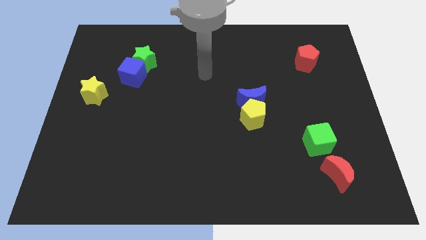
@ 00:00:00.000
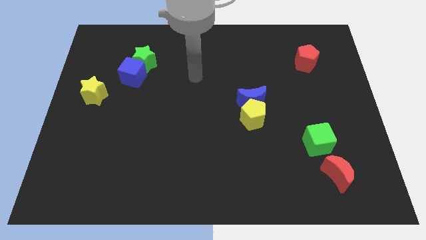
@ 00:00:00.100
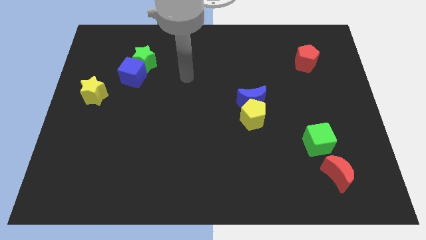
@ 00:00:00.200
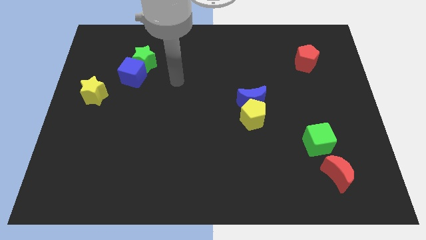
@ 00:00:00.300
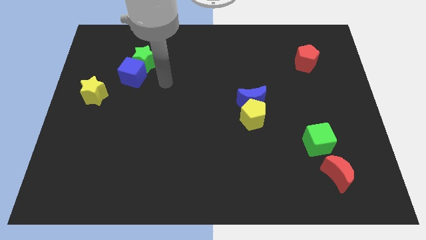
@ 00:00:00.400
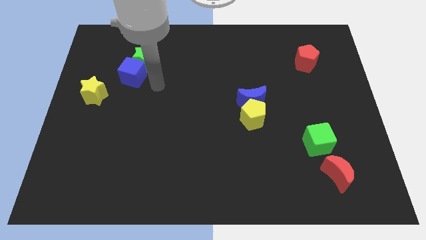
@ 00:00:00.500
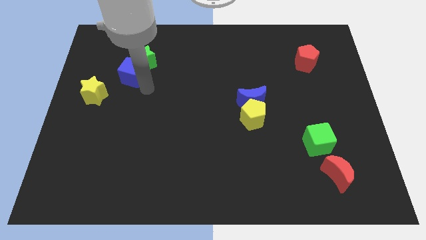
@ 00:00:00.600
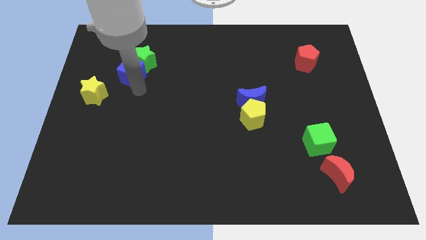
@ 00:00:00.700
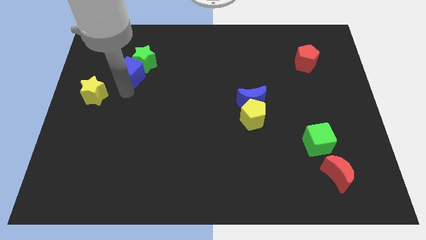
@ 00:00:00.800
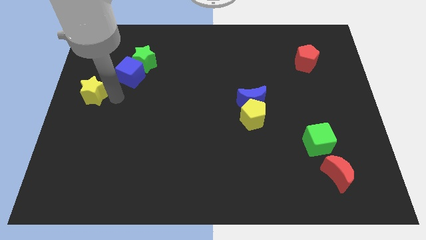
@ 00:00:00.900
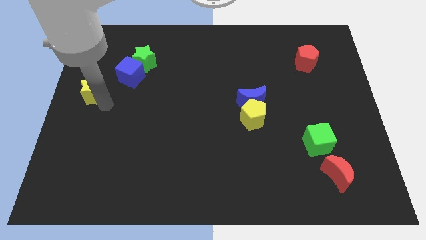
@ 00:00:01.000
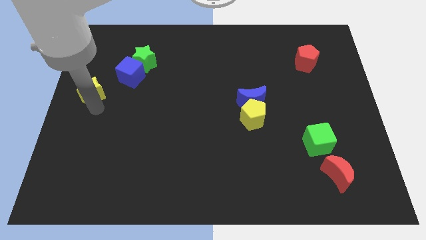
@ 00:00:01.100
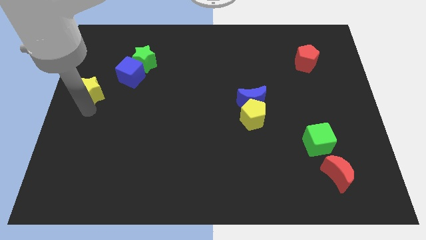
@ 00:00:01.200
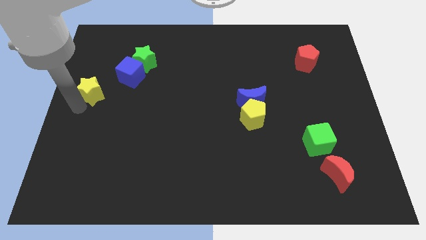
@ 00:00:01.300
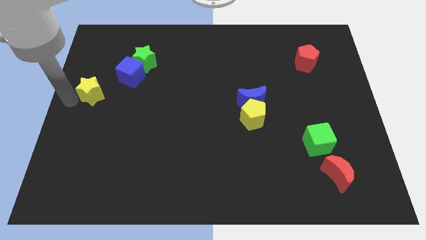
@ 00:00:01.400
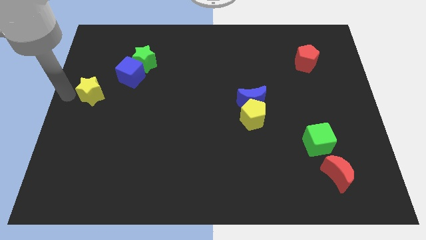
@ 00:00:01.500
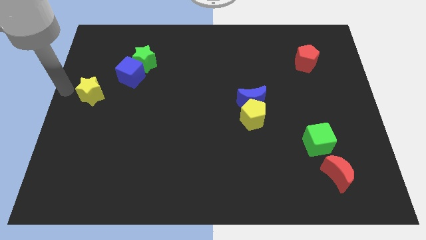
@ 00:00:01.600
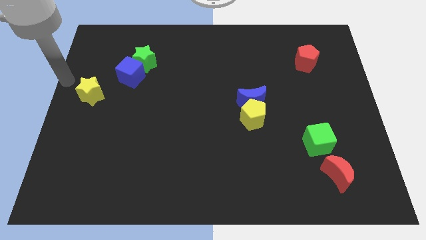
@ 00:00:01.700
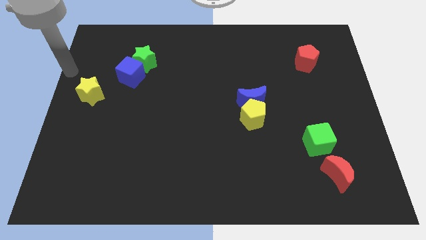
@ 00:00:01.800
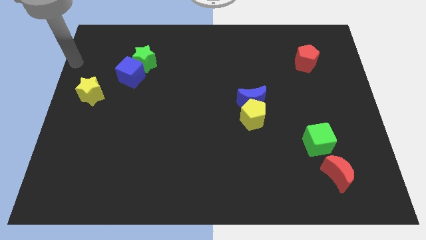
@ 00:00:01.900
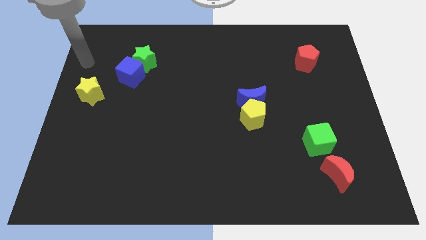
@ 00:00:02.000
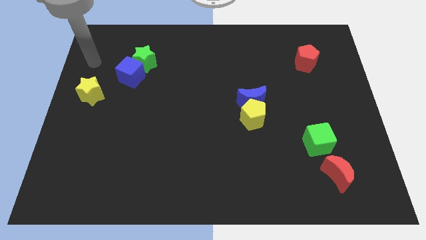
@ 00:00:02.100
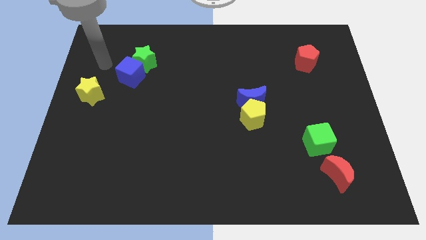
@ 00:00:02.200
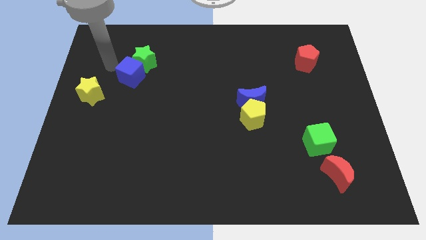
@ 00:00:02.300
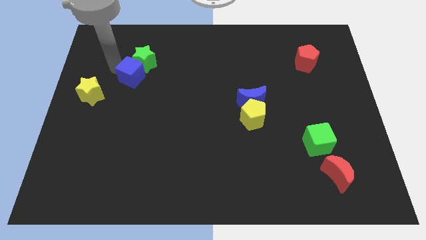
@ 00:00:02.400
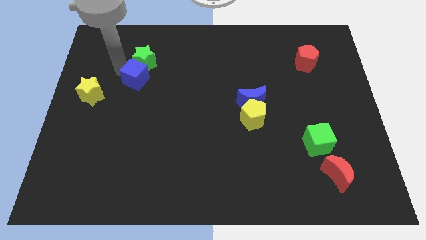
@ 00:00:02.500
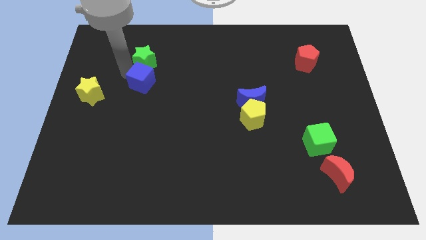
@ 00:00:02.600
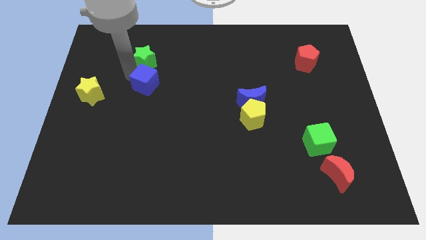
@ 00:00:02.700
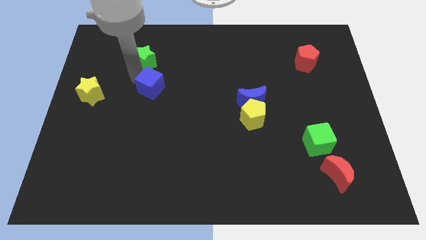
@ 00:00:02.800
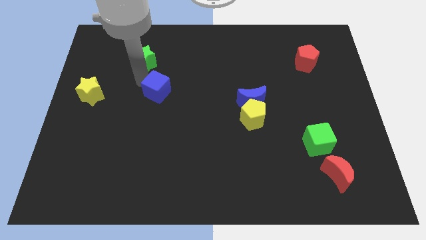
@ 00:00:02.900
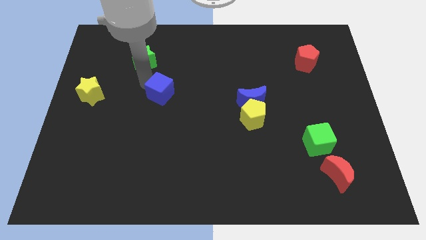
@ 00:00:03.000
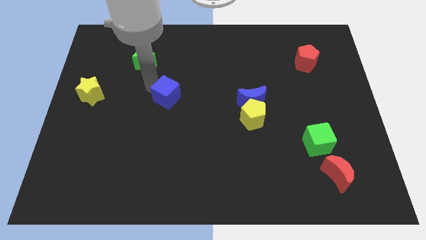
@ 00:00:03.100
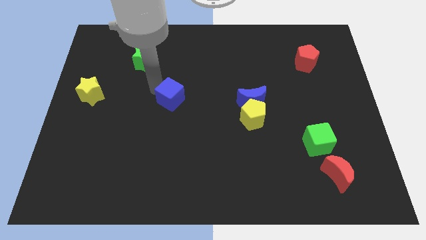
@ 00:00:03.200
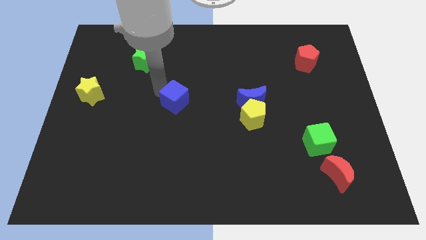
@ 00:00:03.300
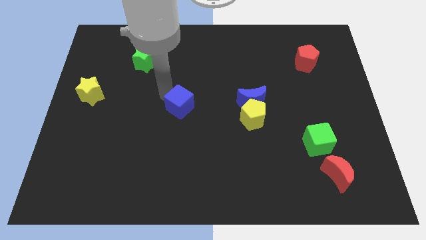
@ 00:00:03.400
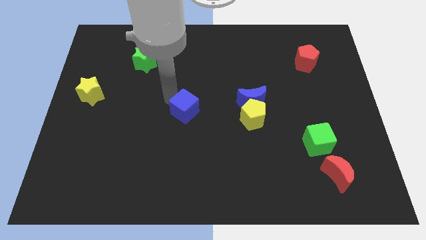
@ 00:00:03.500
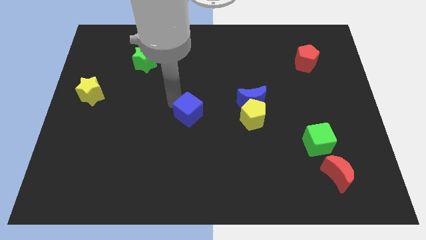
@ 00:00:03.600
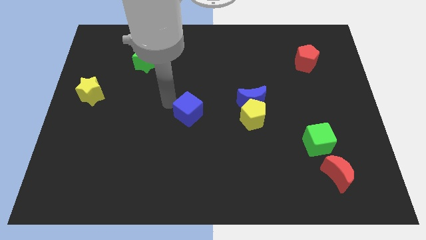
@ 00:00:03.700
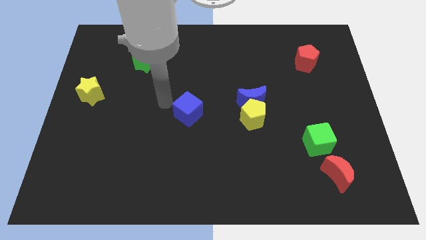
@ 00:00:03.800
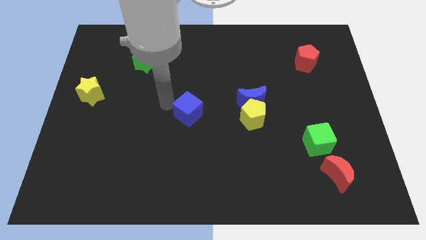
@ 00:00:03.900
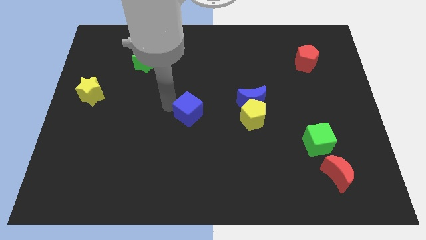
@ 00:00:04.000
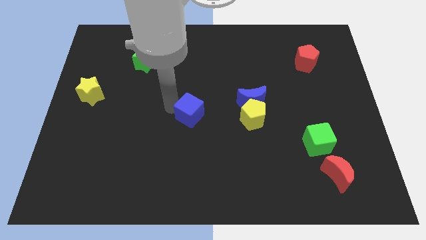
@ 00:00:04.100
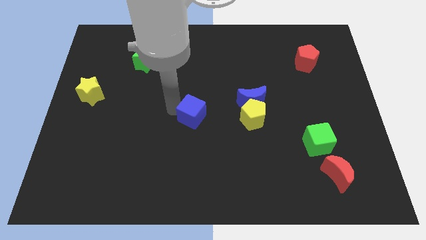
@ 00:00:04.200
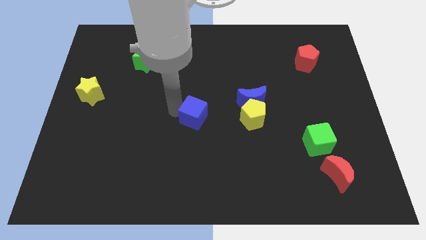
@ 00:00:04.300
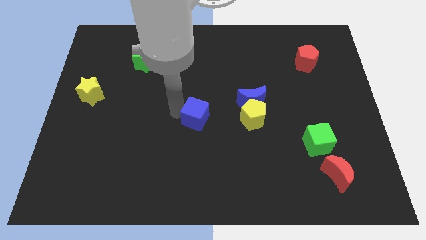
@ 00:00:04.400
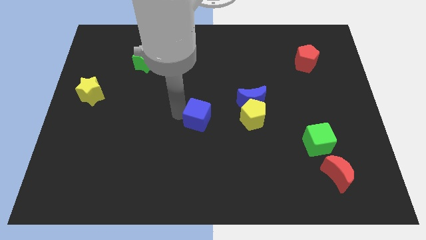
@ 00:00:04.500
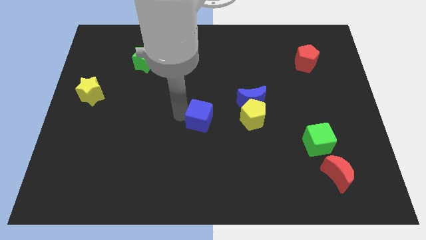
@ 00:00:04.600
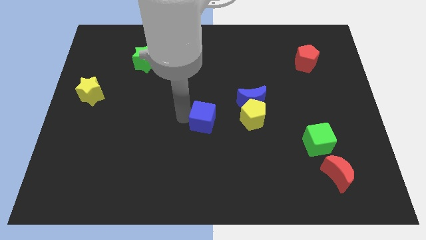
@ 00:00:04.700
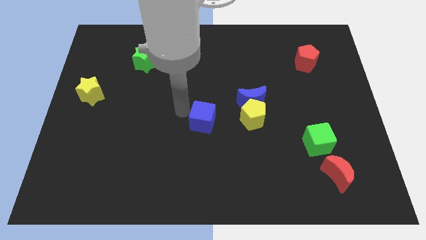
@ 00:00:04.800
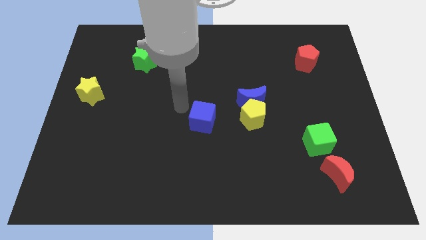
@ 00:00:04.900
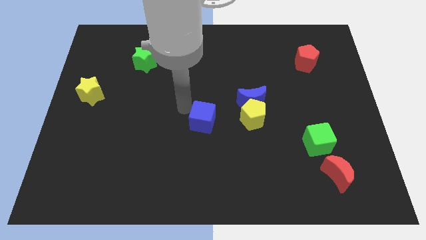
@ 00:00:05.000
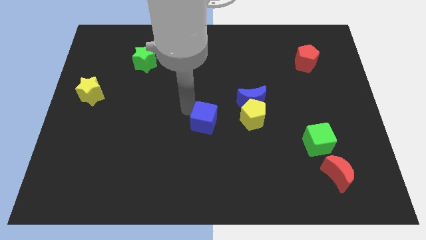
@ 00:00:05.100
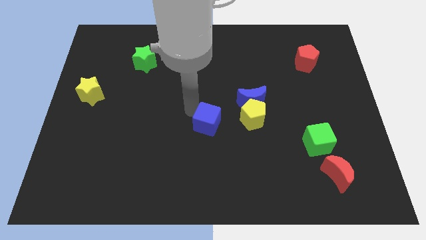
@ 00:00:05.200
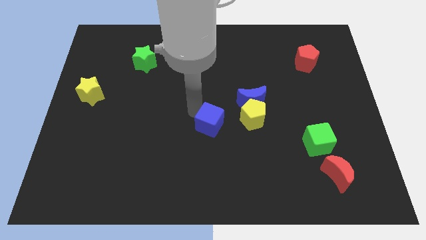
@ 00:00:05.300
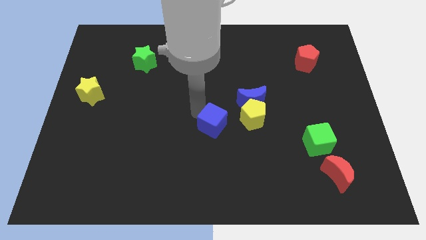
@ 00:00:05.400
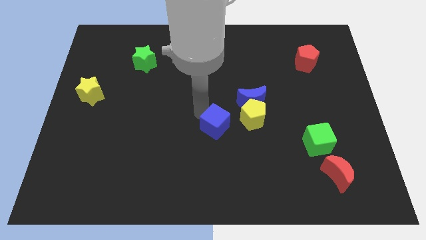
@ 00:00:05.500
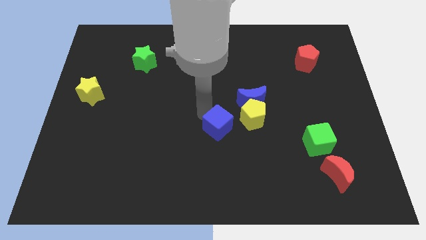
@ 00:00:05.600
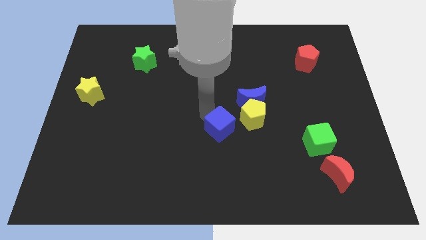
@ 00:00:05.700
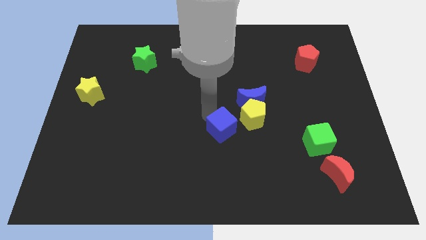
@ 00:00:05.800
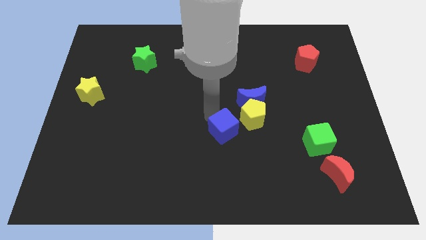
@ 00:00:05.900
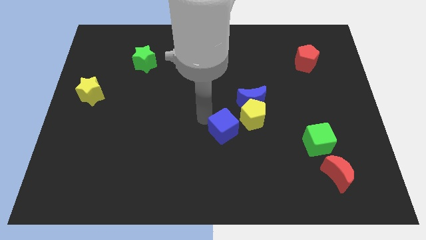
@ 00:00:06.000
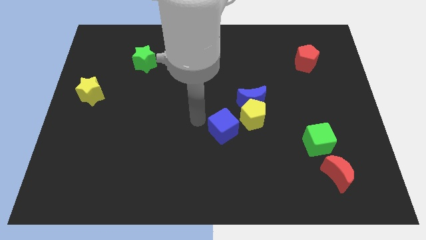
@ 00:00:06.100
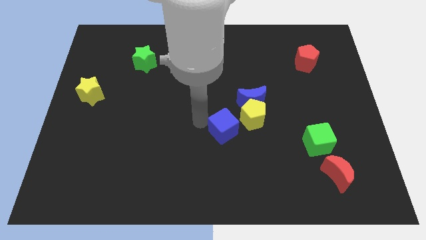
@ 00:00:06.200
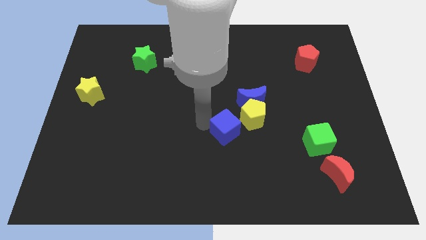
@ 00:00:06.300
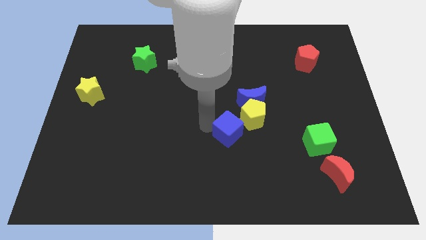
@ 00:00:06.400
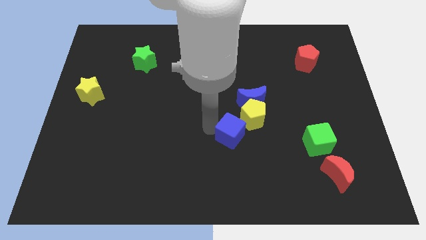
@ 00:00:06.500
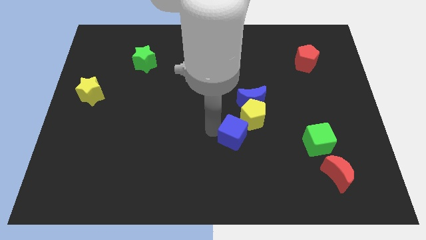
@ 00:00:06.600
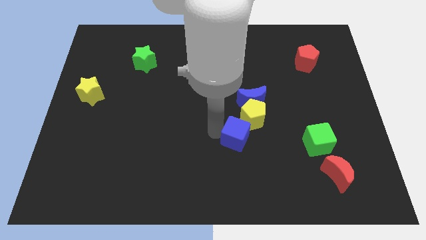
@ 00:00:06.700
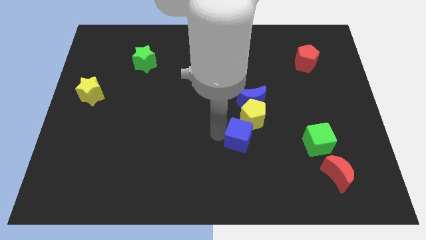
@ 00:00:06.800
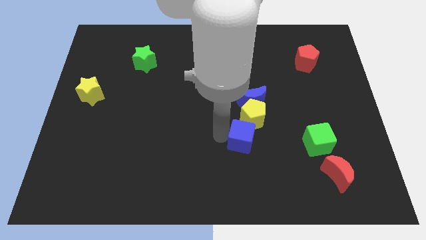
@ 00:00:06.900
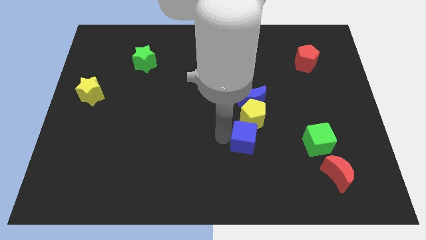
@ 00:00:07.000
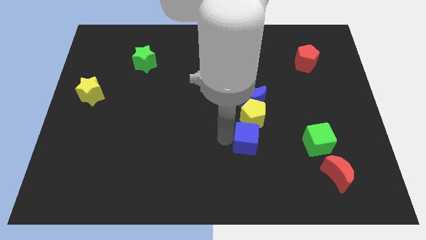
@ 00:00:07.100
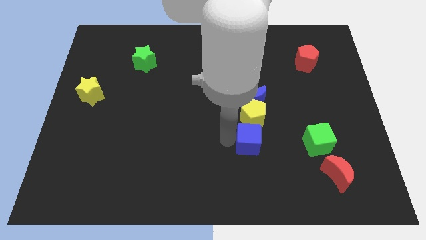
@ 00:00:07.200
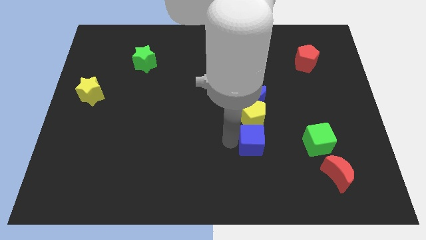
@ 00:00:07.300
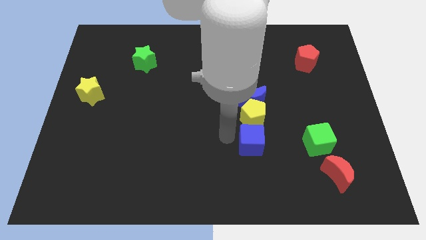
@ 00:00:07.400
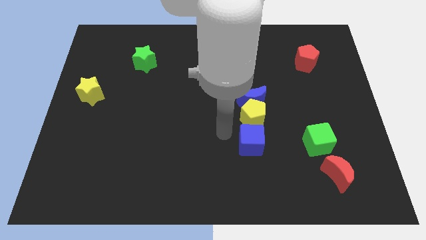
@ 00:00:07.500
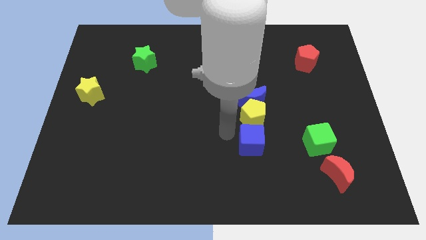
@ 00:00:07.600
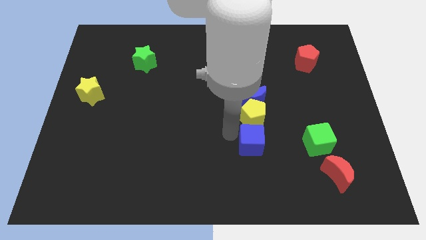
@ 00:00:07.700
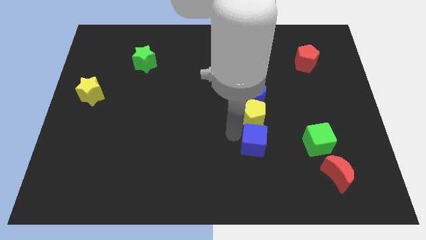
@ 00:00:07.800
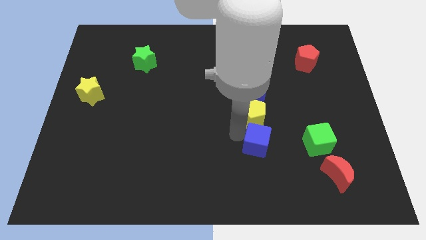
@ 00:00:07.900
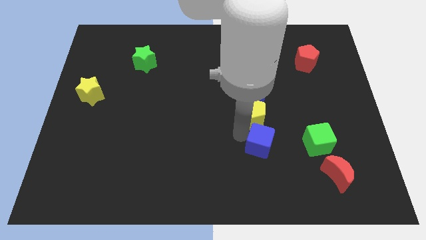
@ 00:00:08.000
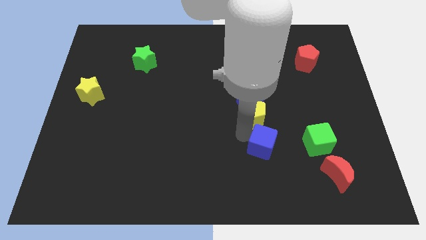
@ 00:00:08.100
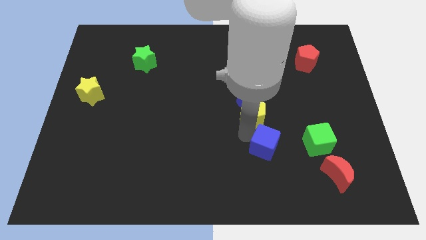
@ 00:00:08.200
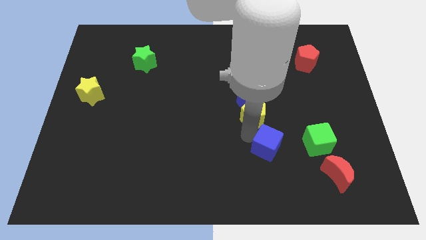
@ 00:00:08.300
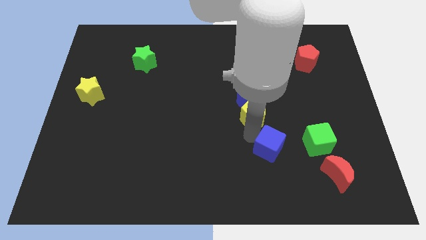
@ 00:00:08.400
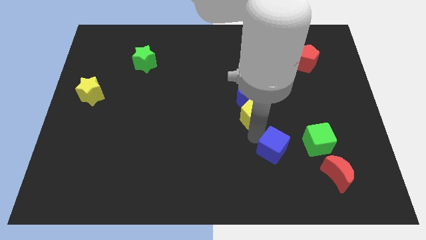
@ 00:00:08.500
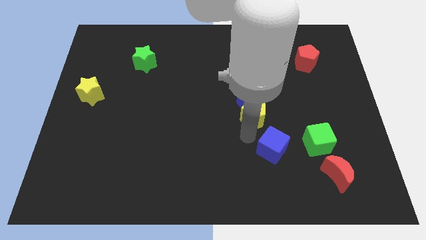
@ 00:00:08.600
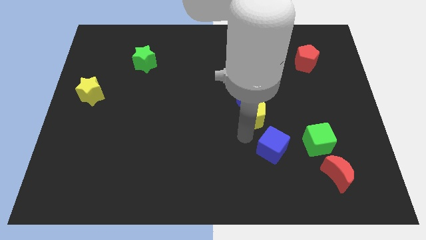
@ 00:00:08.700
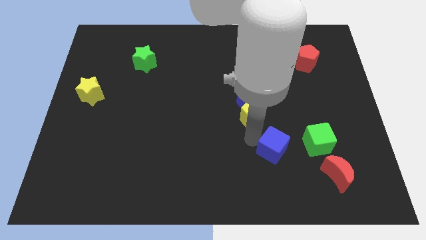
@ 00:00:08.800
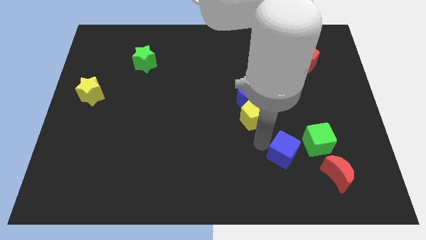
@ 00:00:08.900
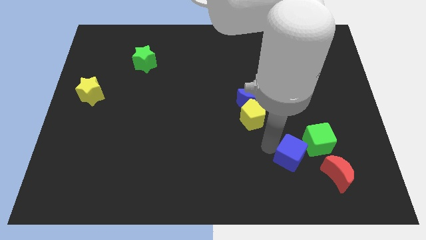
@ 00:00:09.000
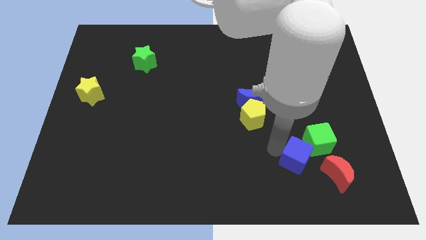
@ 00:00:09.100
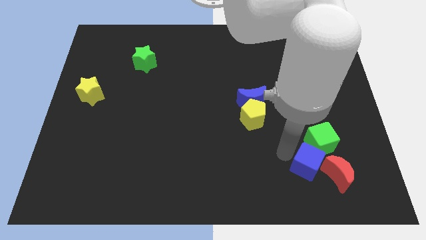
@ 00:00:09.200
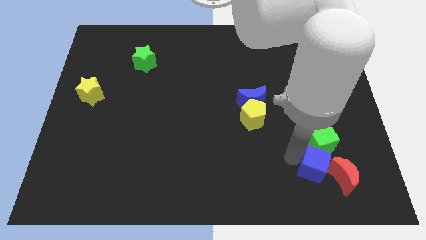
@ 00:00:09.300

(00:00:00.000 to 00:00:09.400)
push the blue cube next to the red moon
